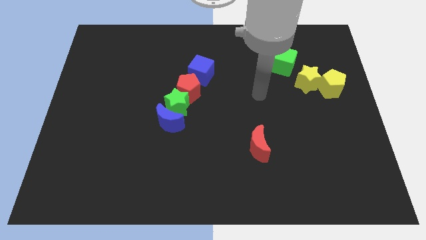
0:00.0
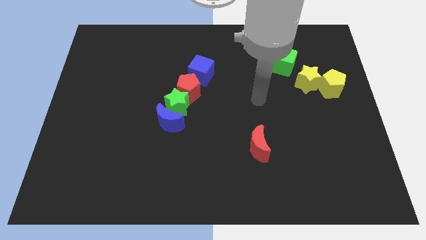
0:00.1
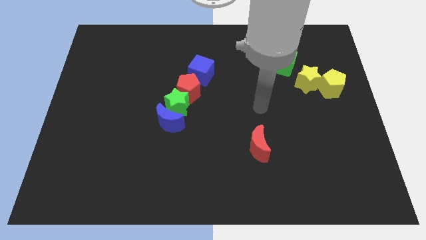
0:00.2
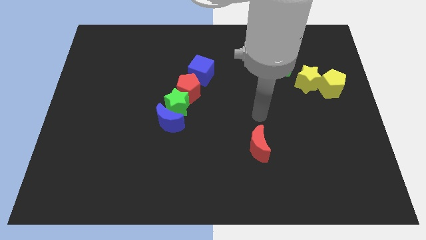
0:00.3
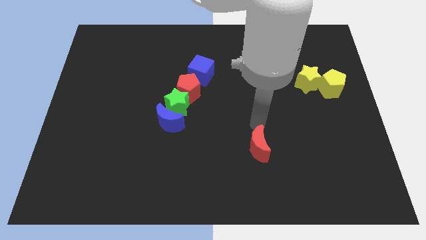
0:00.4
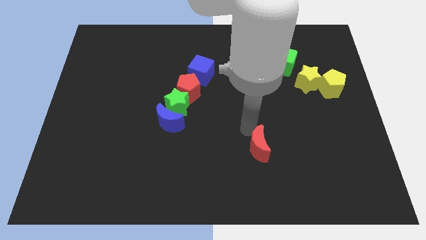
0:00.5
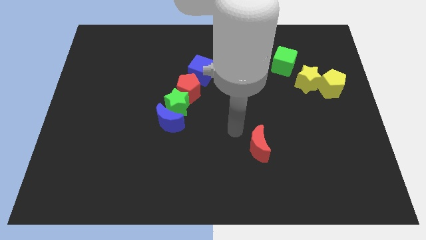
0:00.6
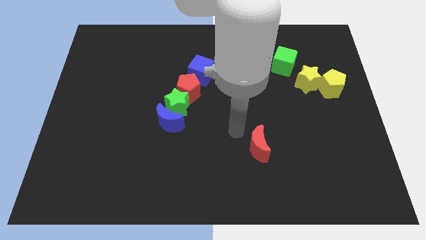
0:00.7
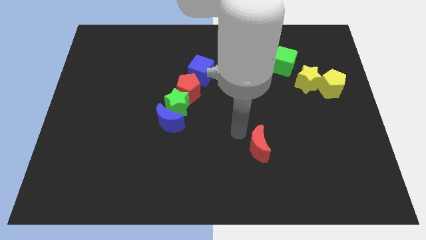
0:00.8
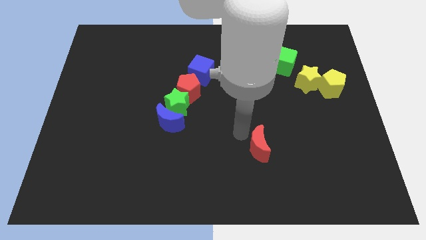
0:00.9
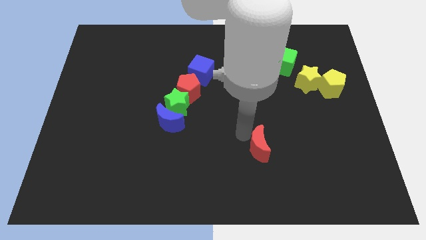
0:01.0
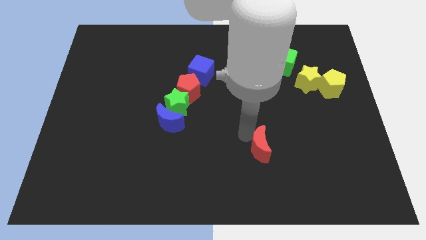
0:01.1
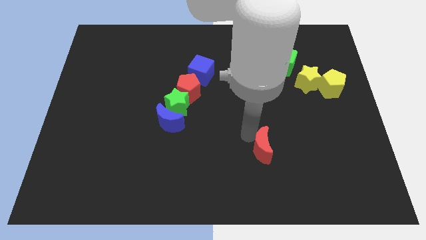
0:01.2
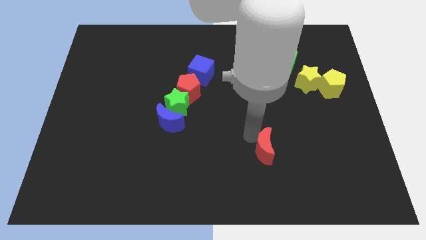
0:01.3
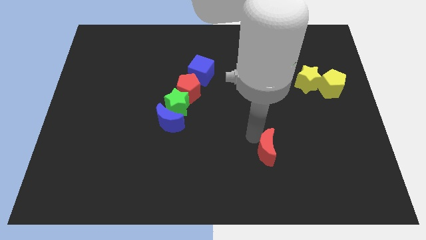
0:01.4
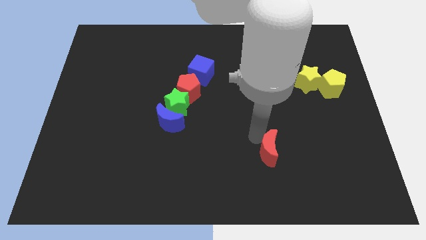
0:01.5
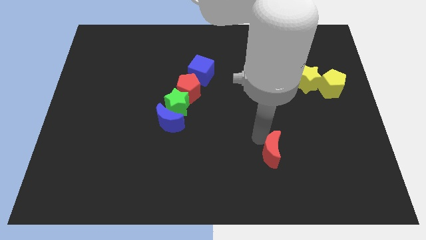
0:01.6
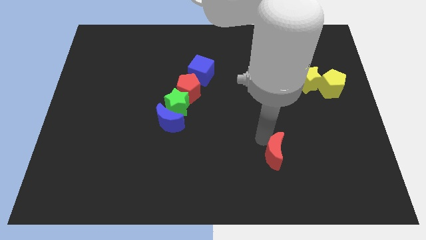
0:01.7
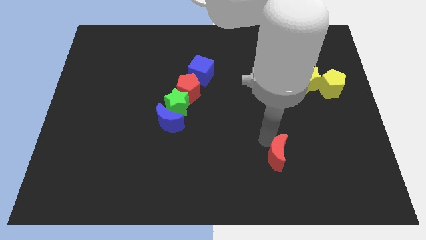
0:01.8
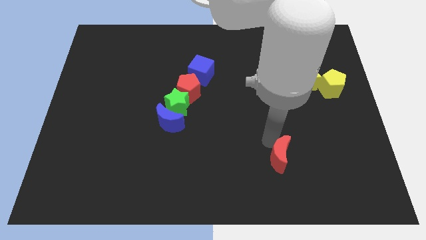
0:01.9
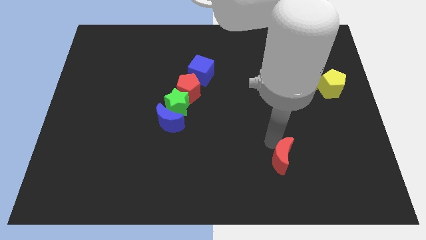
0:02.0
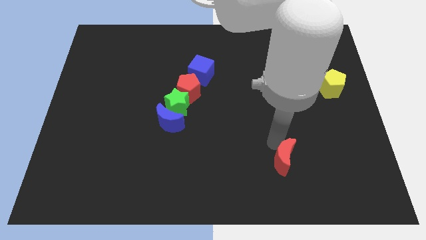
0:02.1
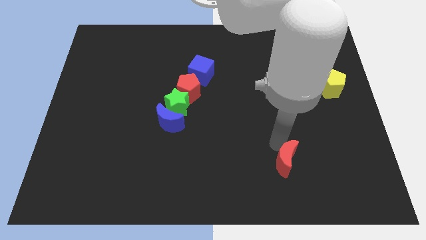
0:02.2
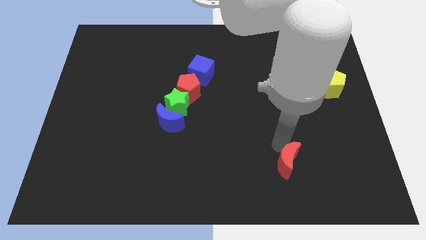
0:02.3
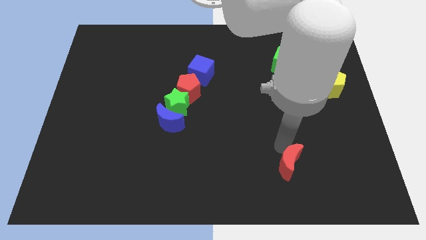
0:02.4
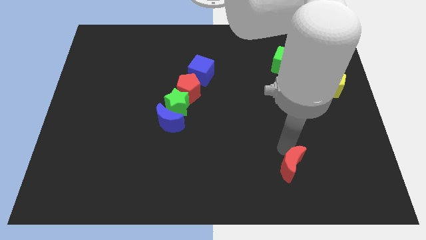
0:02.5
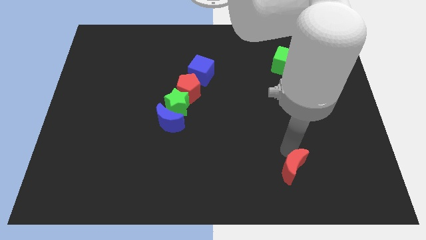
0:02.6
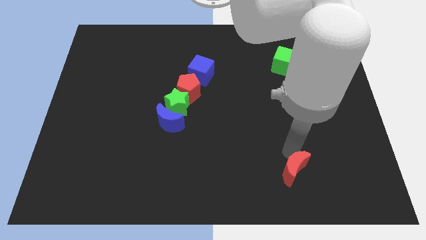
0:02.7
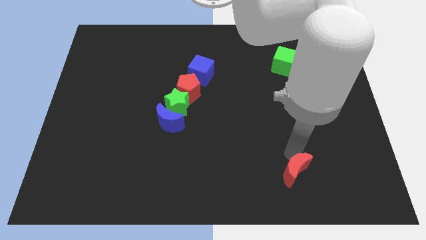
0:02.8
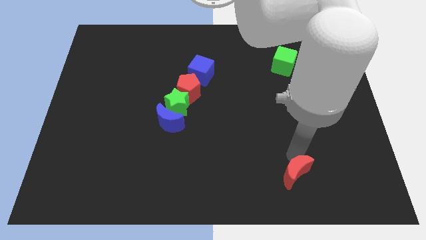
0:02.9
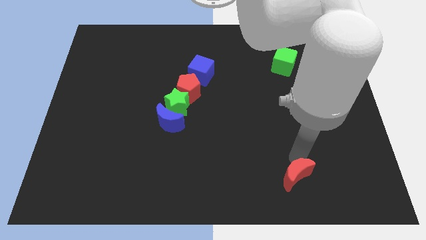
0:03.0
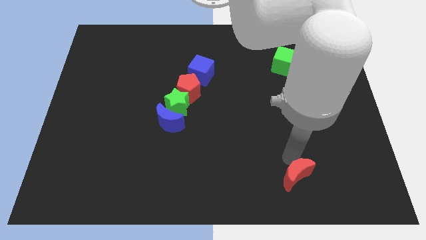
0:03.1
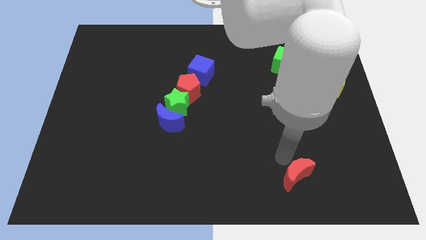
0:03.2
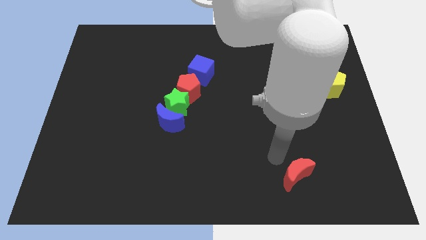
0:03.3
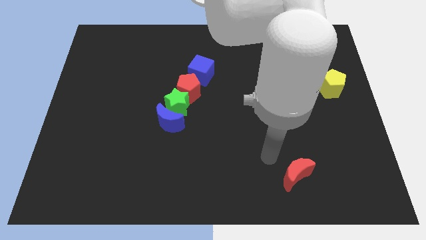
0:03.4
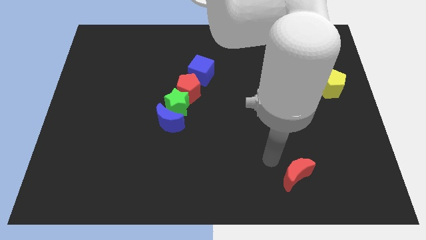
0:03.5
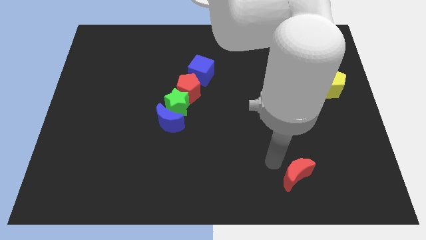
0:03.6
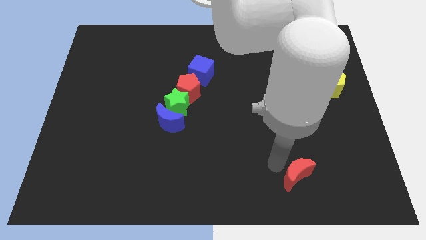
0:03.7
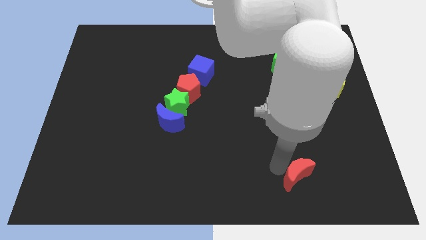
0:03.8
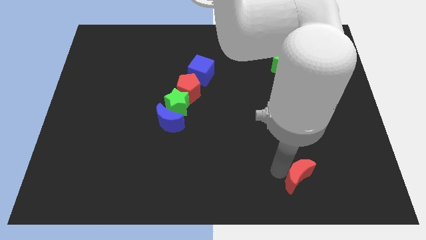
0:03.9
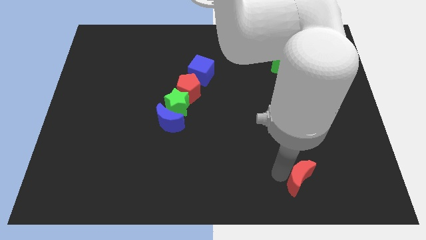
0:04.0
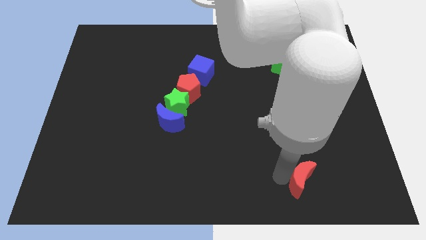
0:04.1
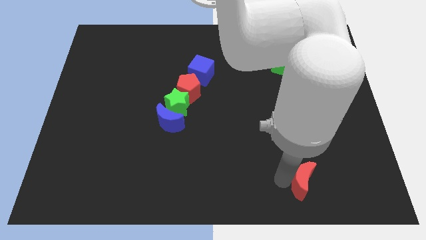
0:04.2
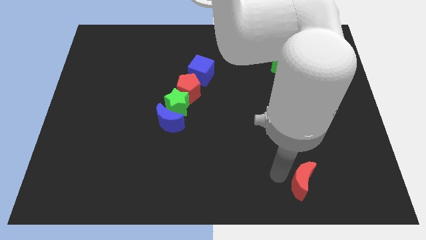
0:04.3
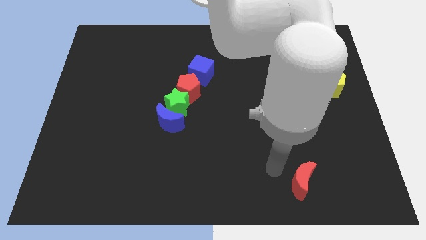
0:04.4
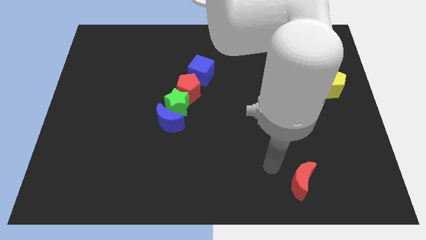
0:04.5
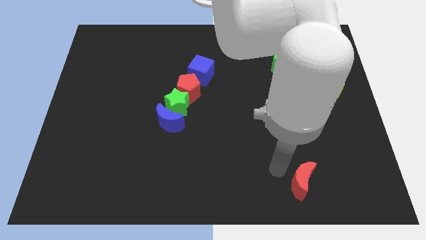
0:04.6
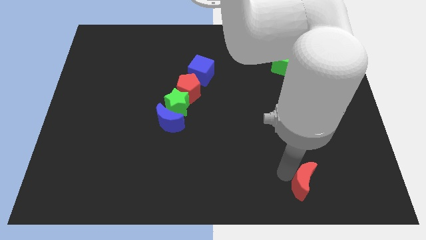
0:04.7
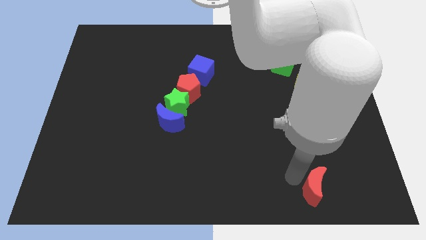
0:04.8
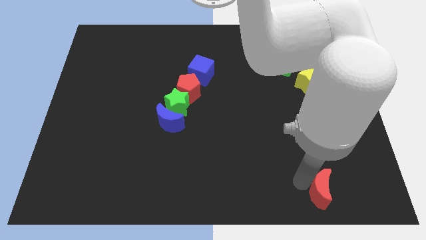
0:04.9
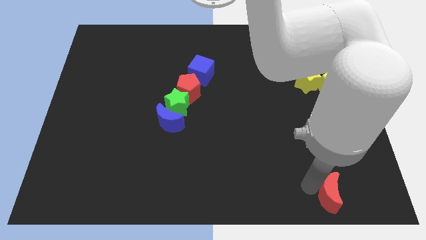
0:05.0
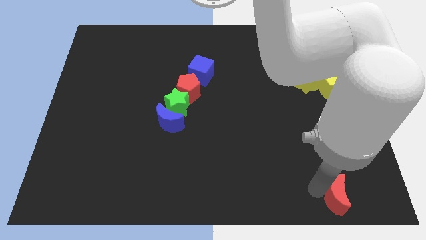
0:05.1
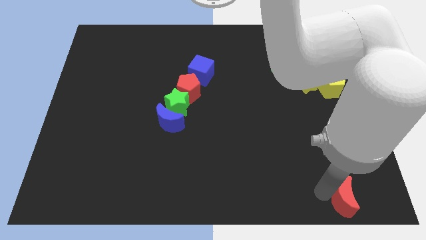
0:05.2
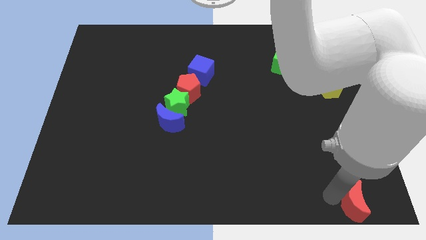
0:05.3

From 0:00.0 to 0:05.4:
put the red moon to the bottom right
